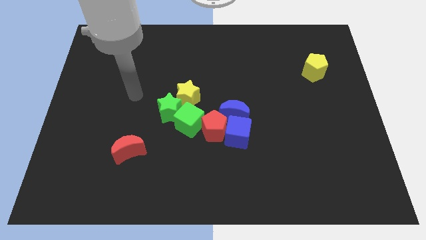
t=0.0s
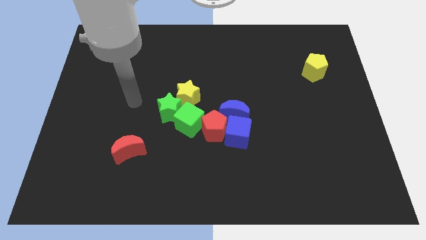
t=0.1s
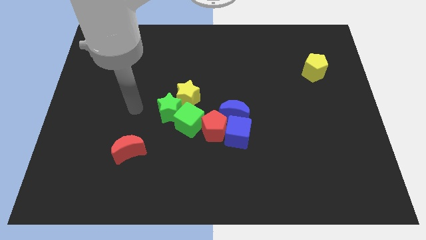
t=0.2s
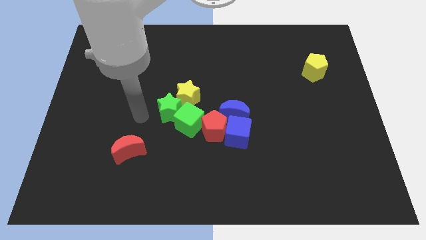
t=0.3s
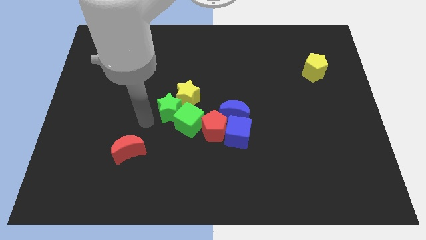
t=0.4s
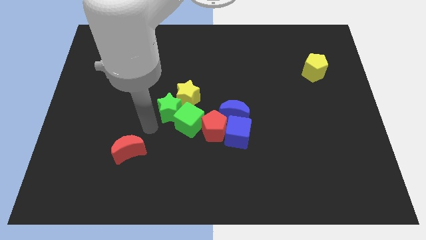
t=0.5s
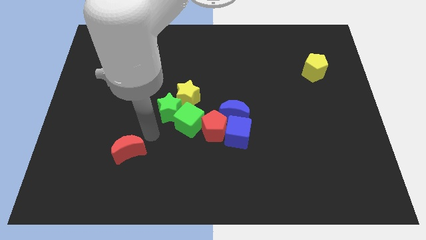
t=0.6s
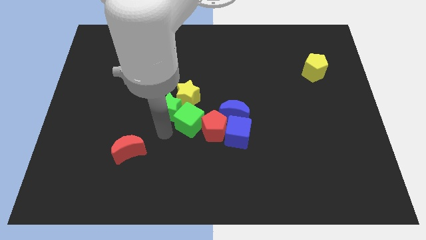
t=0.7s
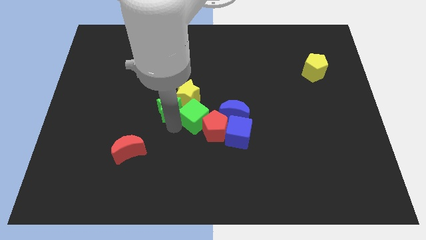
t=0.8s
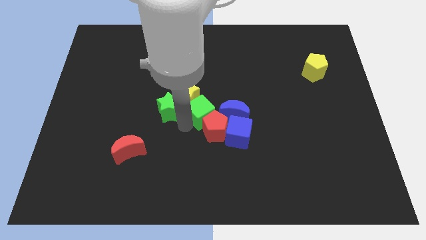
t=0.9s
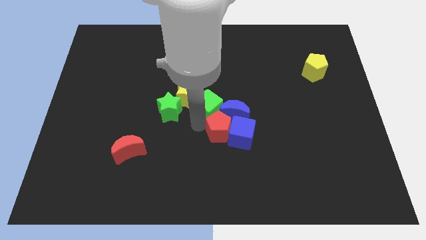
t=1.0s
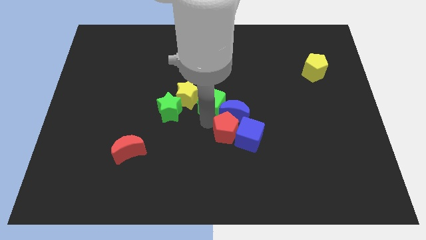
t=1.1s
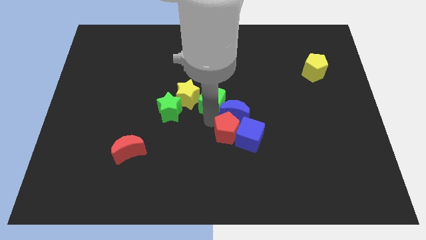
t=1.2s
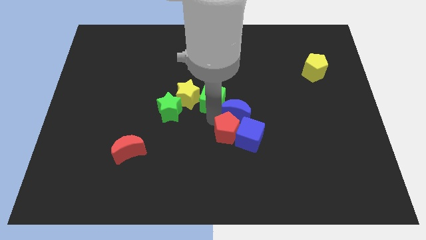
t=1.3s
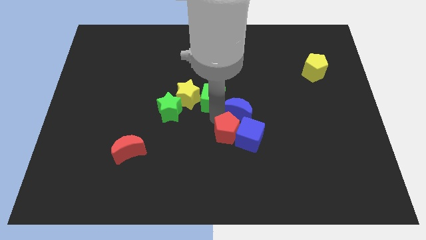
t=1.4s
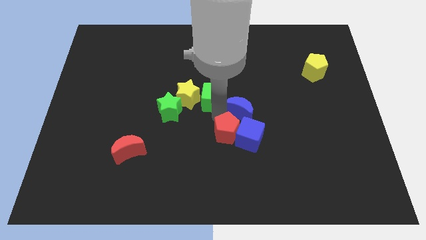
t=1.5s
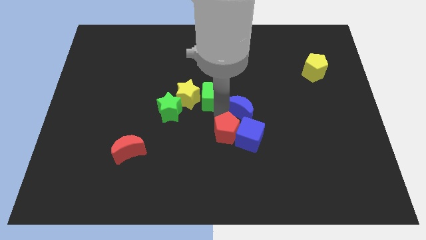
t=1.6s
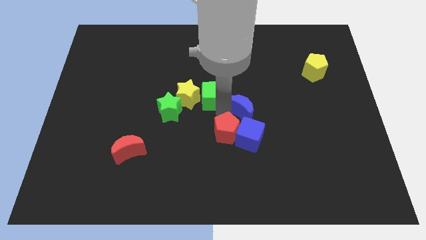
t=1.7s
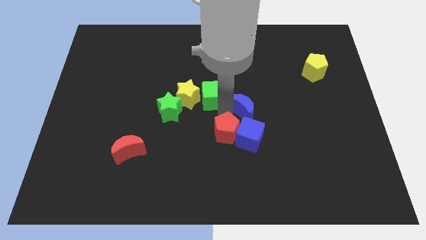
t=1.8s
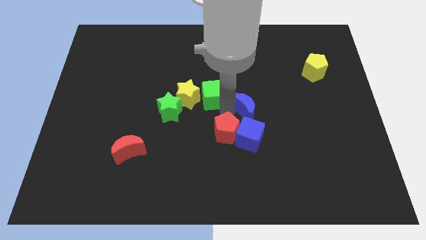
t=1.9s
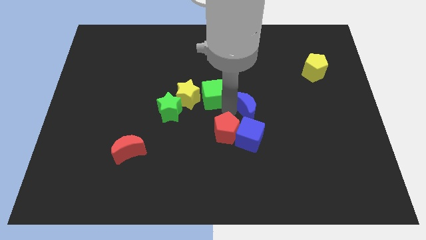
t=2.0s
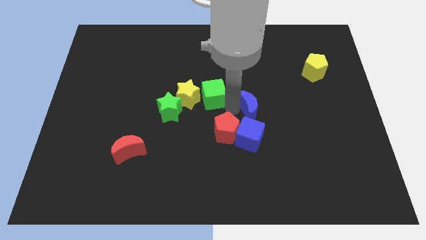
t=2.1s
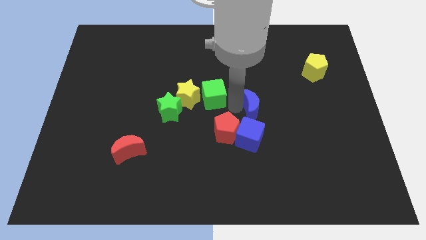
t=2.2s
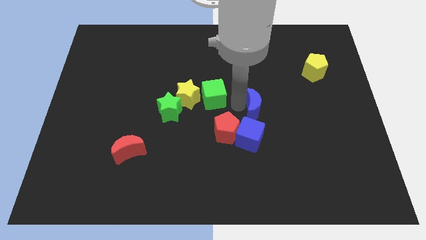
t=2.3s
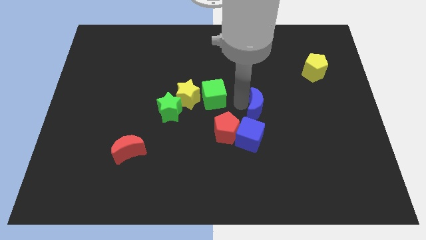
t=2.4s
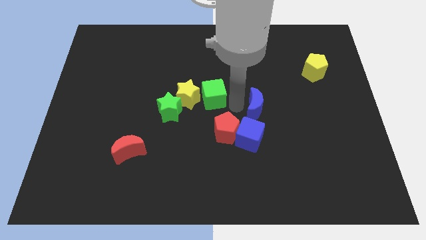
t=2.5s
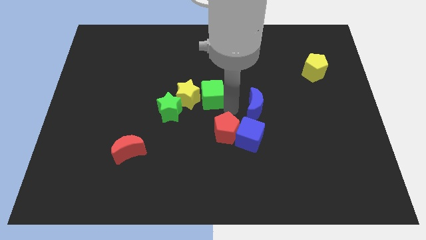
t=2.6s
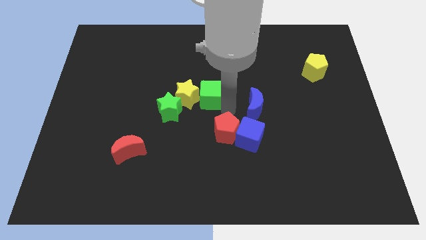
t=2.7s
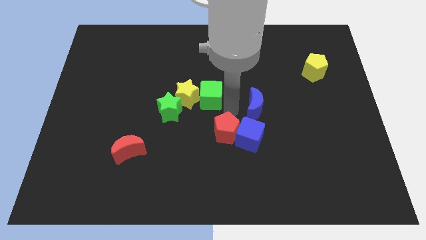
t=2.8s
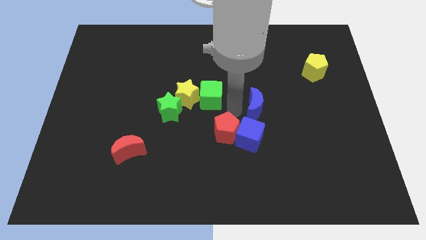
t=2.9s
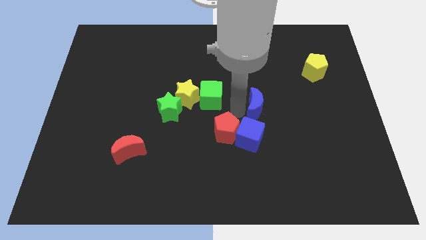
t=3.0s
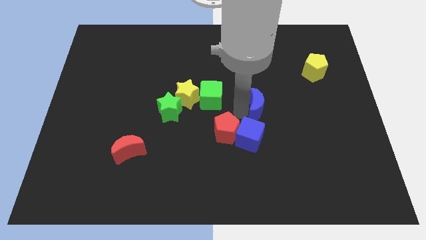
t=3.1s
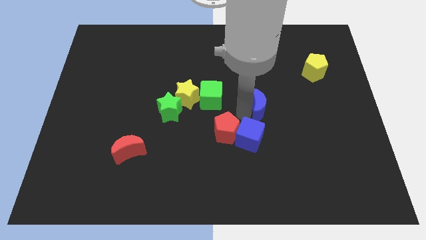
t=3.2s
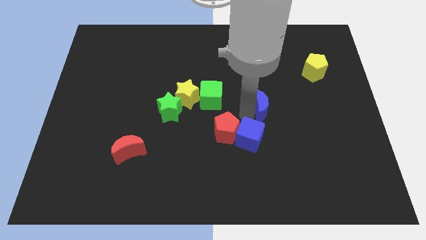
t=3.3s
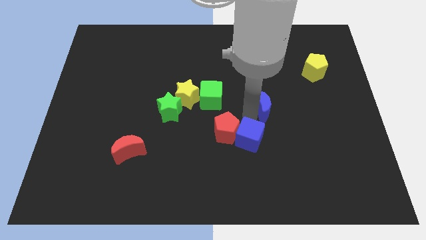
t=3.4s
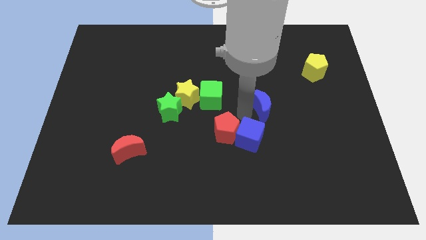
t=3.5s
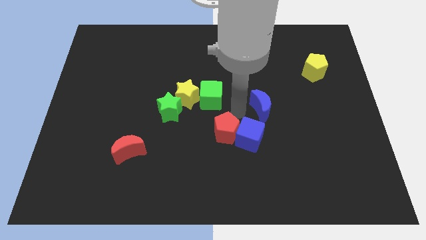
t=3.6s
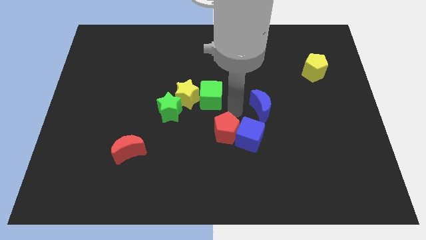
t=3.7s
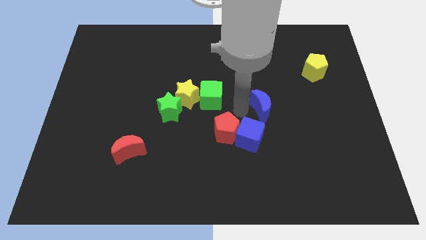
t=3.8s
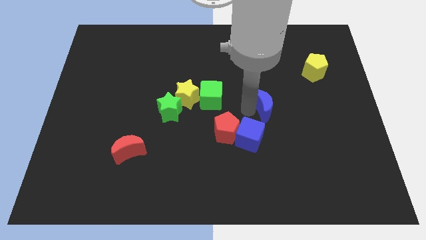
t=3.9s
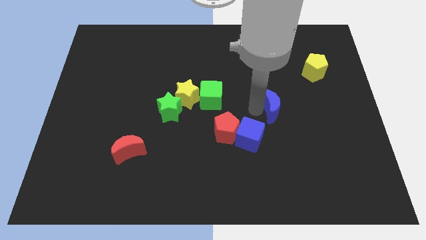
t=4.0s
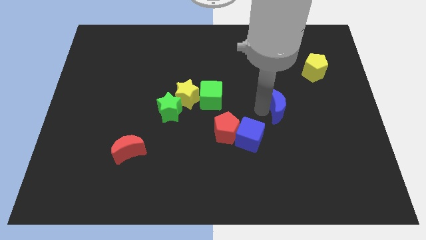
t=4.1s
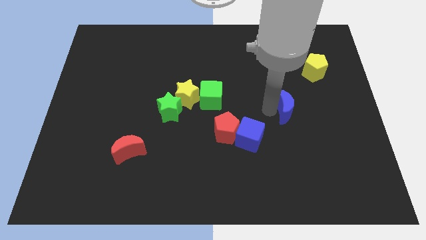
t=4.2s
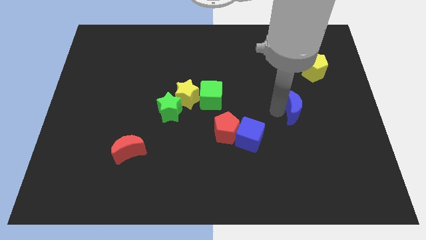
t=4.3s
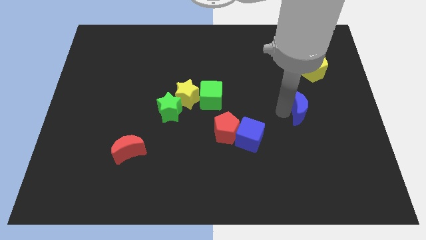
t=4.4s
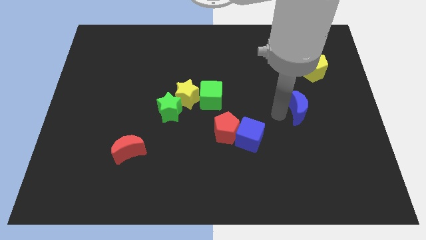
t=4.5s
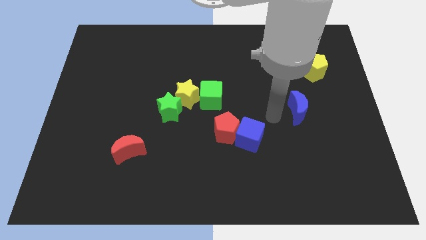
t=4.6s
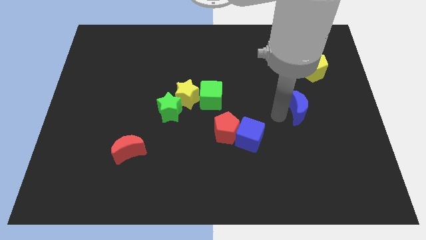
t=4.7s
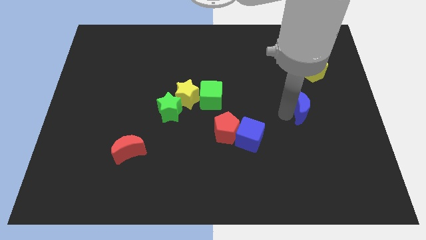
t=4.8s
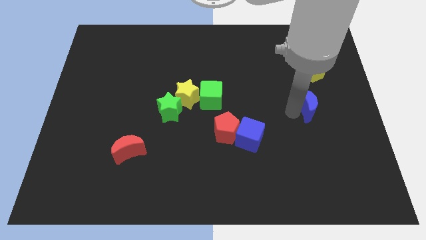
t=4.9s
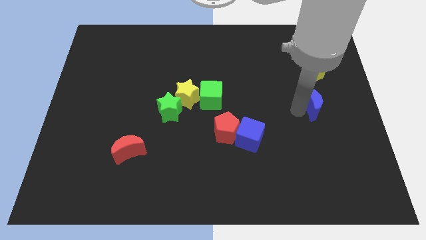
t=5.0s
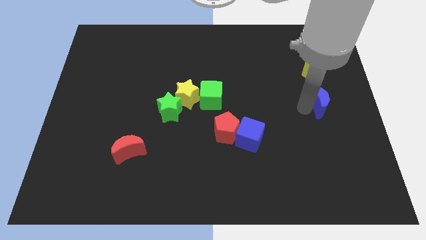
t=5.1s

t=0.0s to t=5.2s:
put the blue moon to the right side
